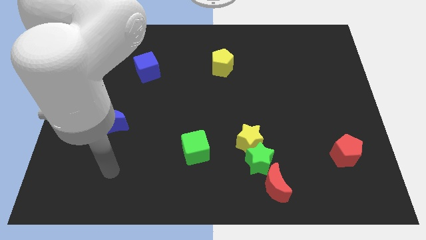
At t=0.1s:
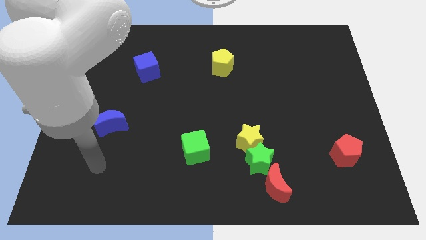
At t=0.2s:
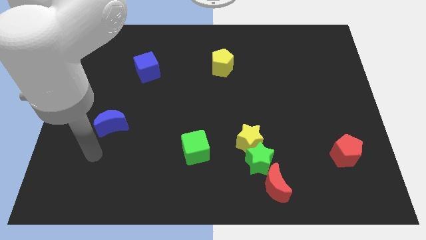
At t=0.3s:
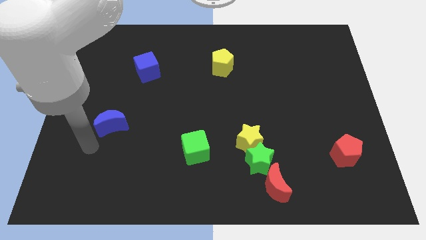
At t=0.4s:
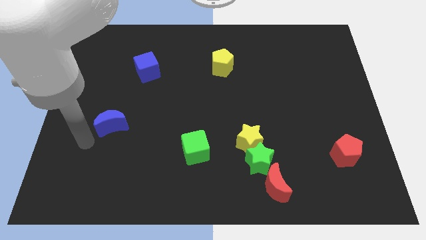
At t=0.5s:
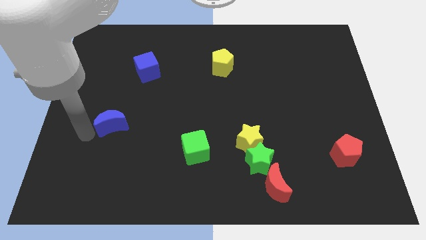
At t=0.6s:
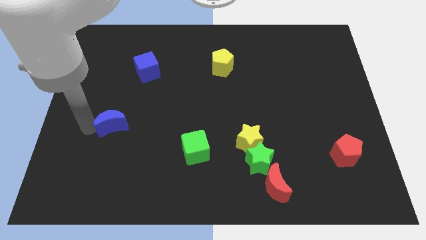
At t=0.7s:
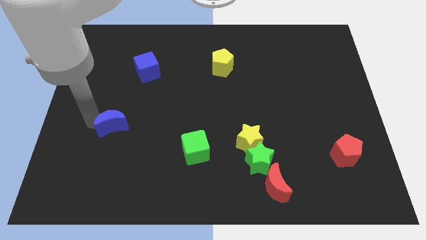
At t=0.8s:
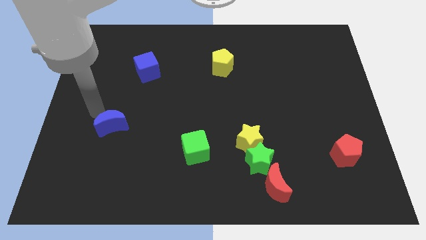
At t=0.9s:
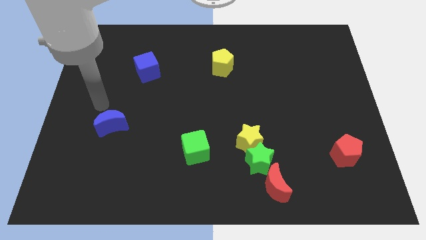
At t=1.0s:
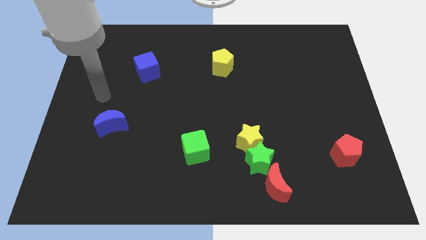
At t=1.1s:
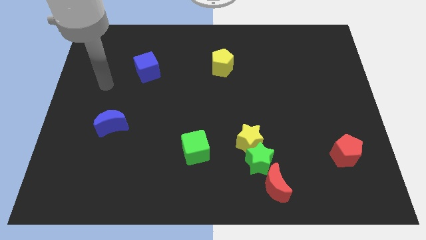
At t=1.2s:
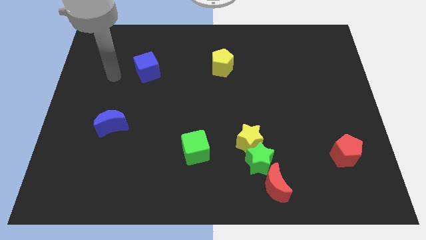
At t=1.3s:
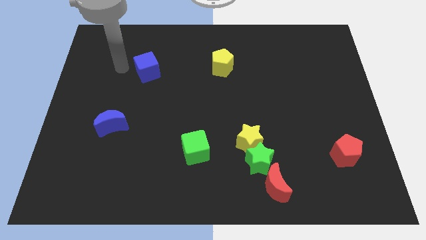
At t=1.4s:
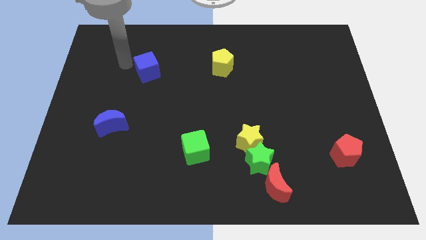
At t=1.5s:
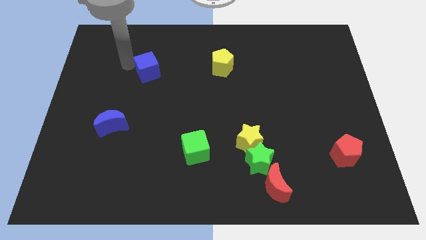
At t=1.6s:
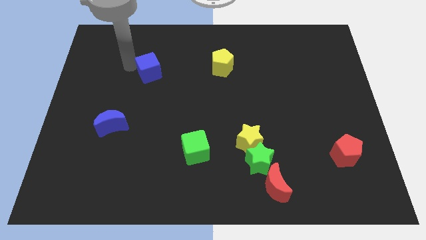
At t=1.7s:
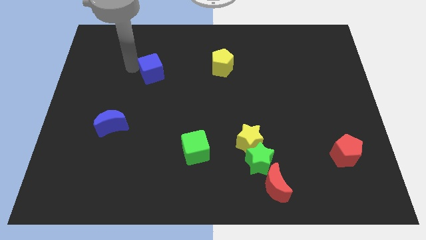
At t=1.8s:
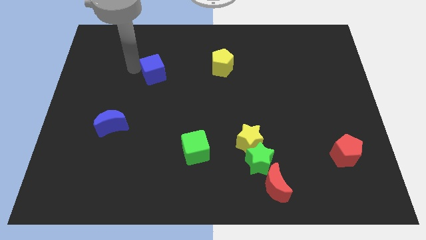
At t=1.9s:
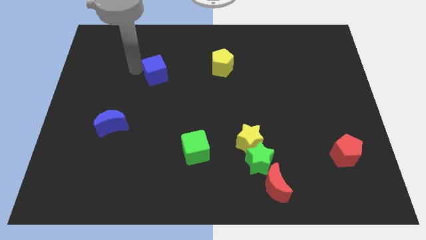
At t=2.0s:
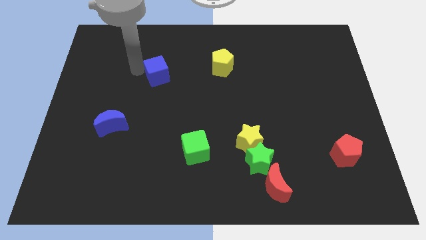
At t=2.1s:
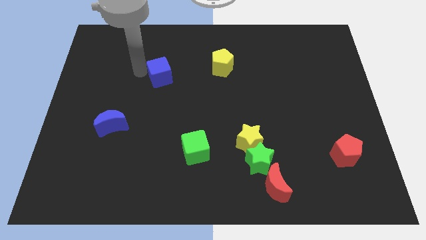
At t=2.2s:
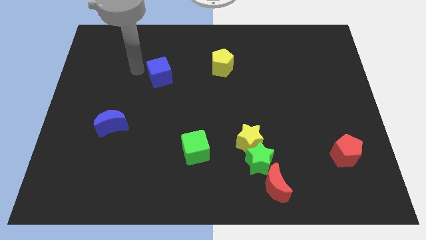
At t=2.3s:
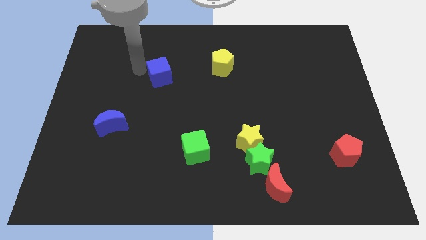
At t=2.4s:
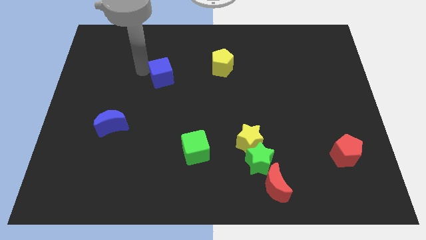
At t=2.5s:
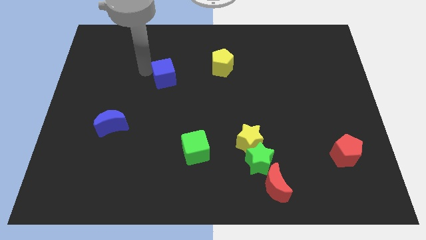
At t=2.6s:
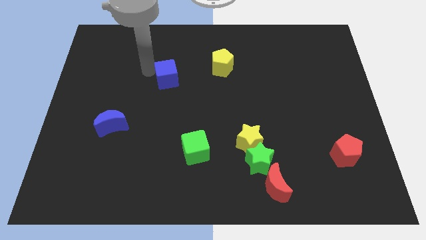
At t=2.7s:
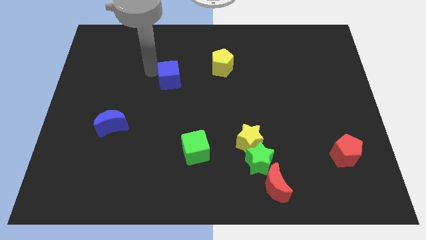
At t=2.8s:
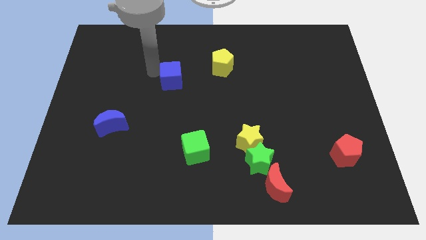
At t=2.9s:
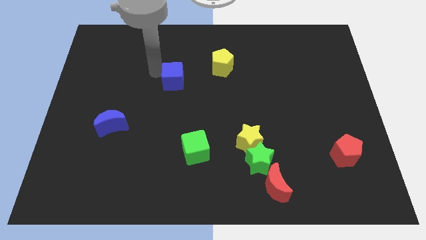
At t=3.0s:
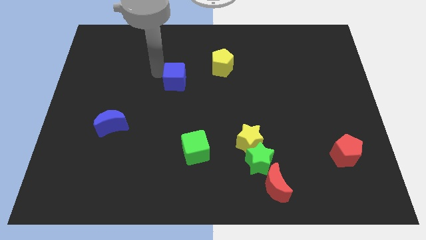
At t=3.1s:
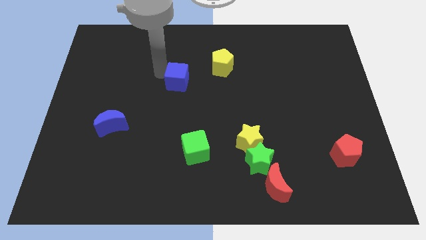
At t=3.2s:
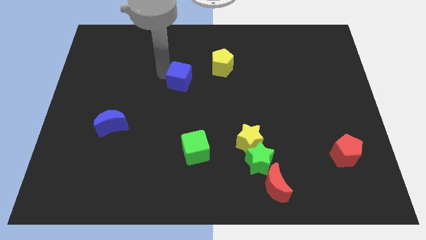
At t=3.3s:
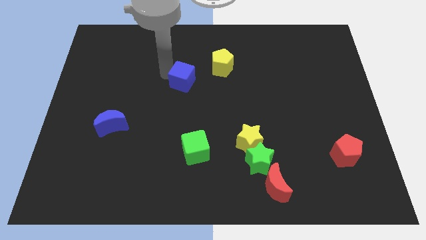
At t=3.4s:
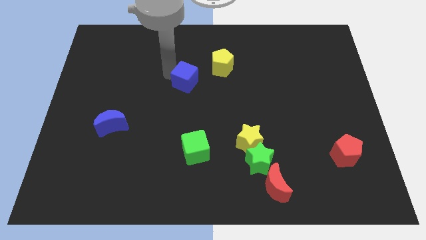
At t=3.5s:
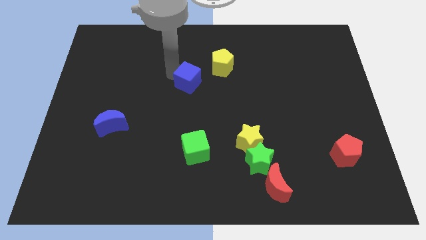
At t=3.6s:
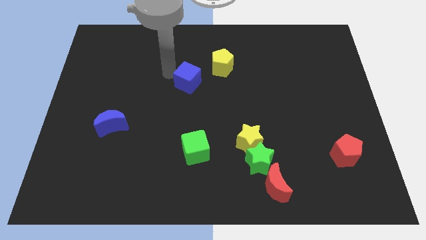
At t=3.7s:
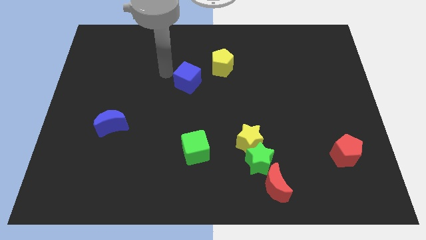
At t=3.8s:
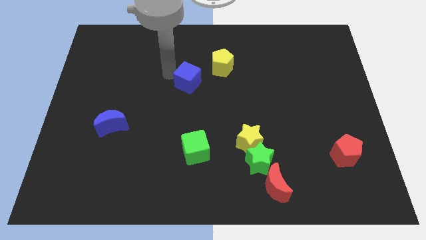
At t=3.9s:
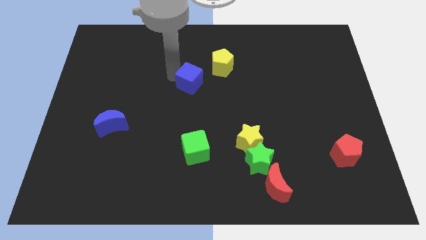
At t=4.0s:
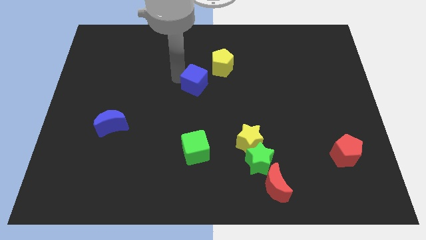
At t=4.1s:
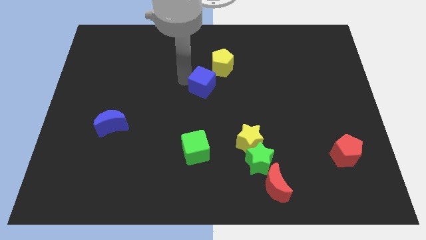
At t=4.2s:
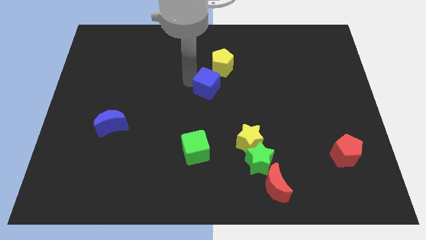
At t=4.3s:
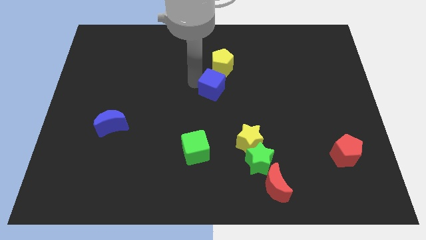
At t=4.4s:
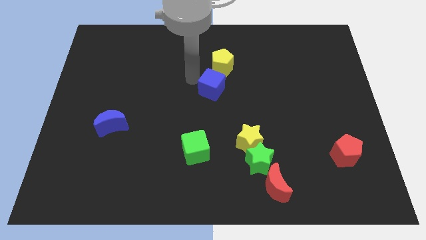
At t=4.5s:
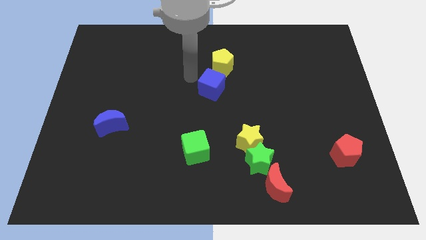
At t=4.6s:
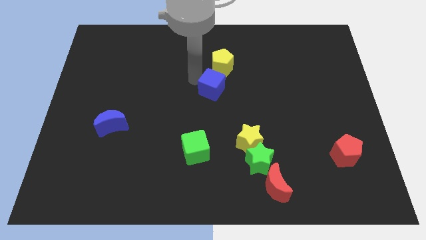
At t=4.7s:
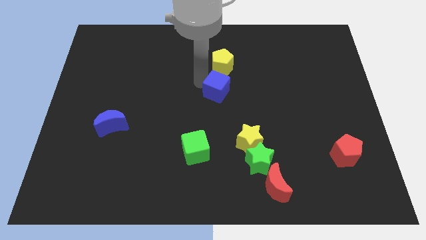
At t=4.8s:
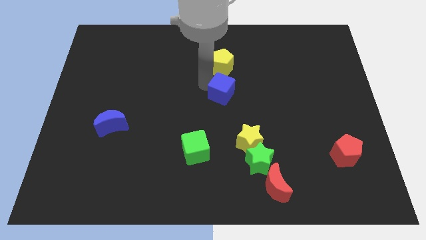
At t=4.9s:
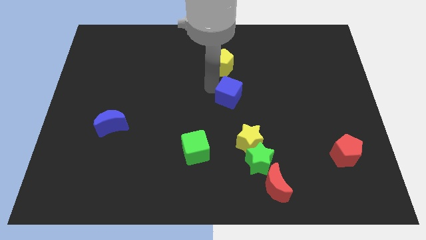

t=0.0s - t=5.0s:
push the blue cube to the top side of the yellow star

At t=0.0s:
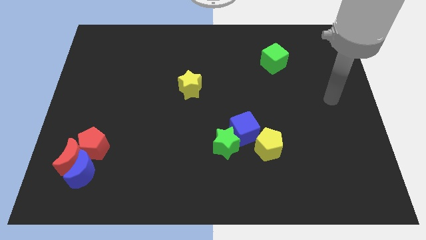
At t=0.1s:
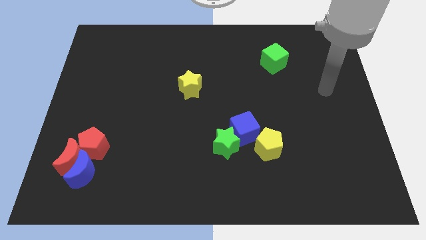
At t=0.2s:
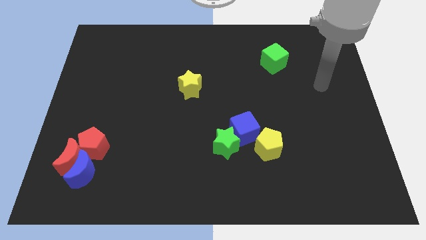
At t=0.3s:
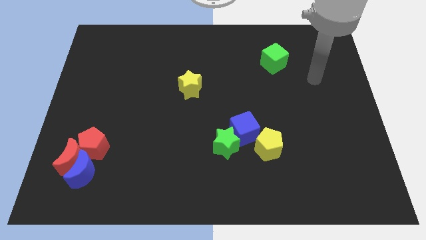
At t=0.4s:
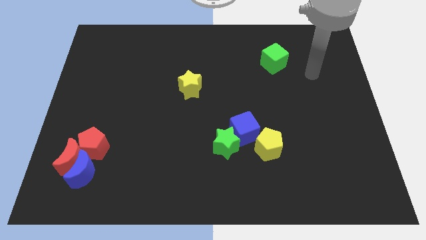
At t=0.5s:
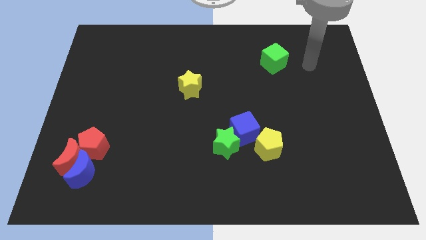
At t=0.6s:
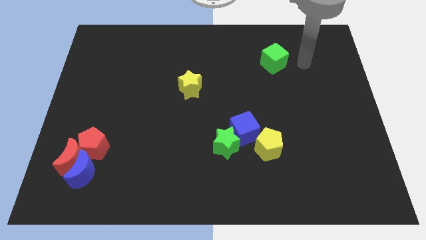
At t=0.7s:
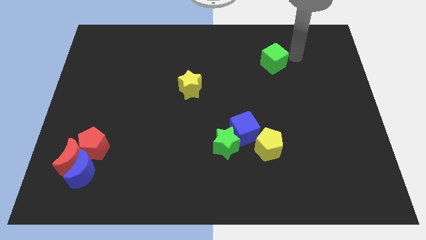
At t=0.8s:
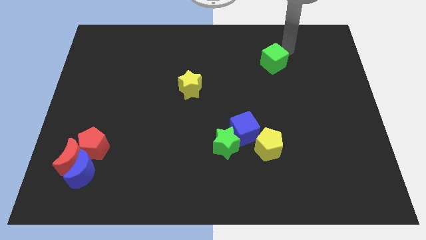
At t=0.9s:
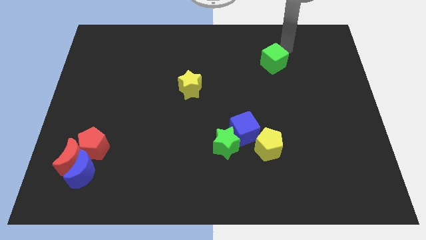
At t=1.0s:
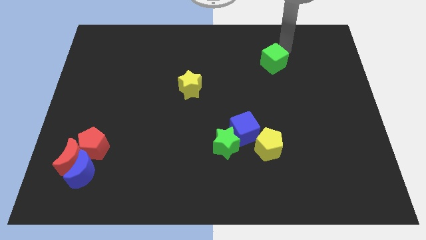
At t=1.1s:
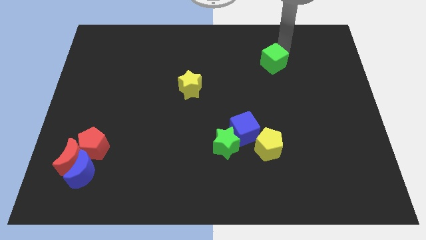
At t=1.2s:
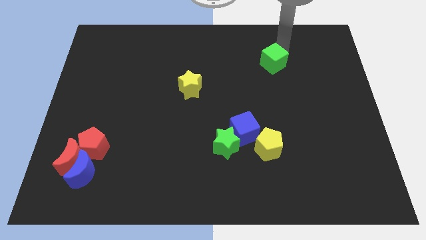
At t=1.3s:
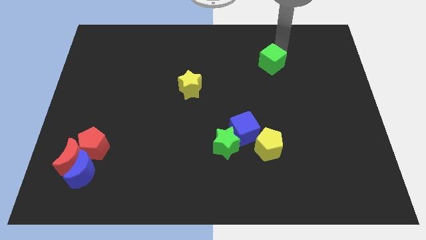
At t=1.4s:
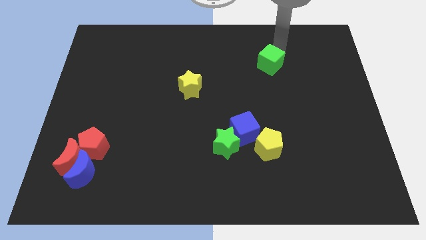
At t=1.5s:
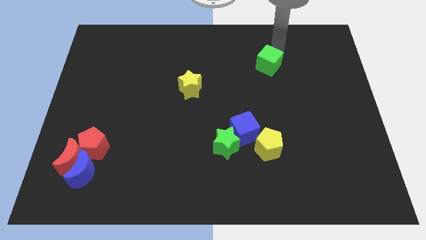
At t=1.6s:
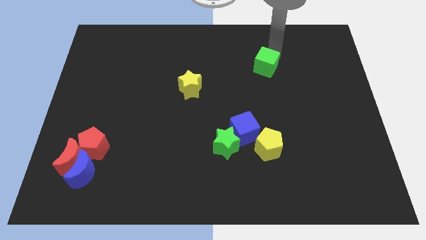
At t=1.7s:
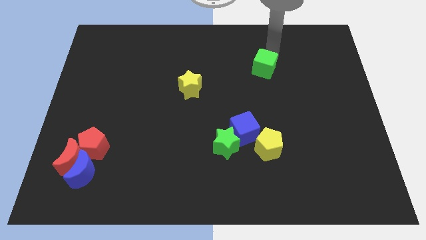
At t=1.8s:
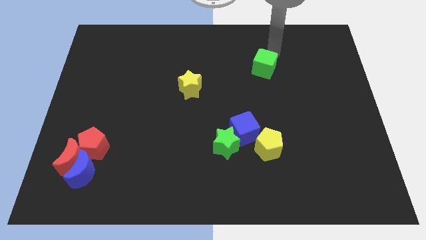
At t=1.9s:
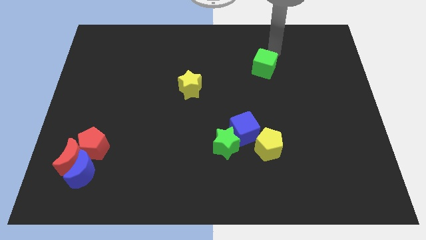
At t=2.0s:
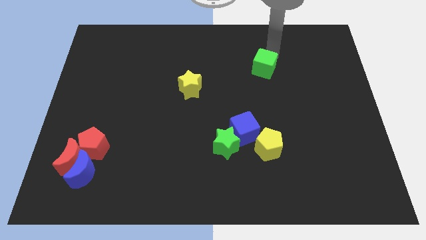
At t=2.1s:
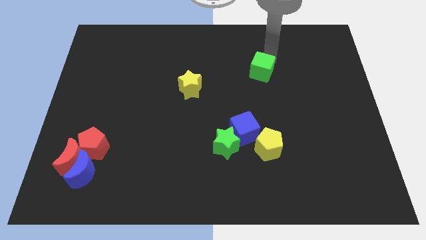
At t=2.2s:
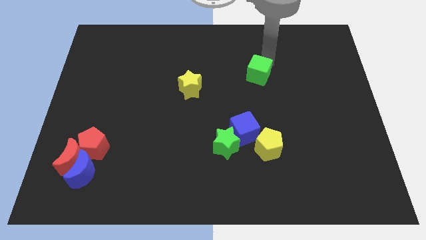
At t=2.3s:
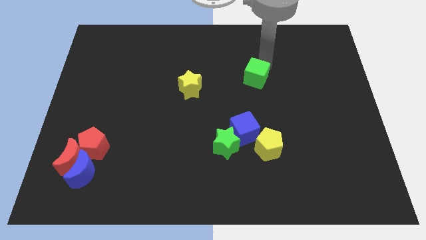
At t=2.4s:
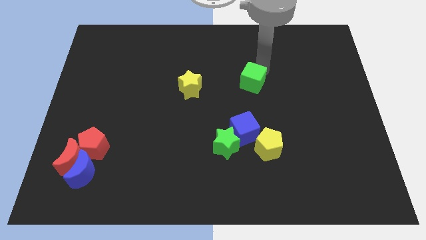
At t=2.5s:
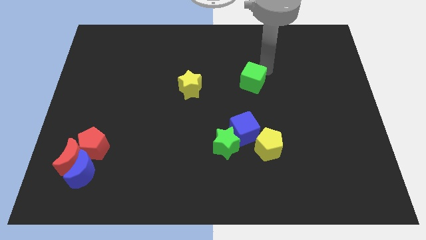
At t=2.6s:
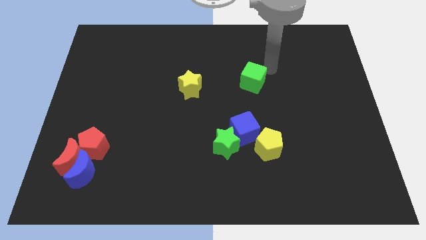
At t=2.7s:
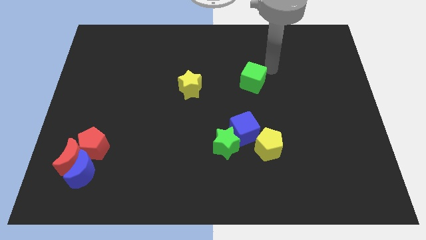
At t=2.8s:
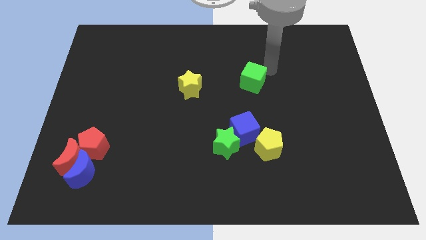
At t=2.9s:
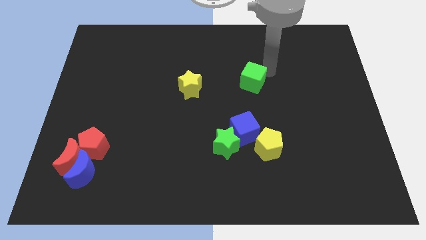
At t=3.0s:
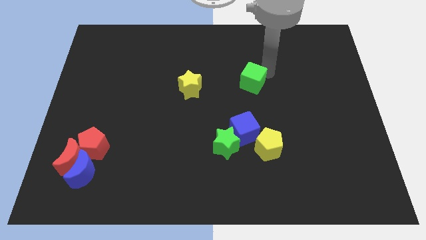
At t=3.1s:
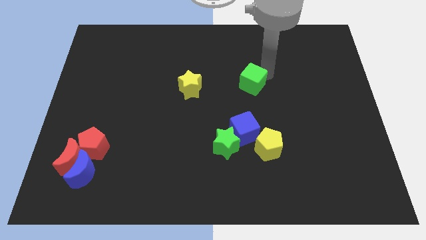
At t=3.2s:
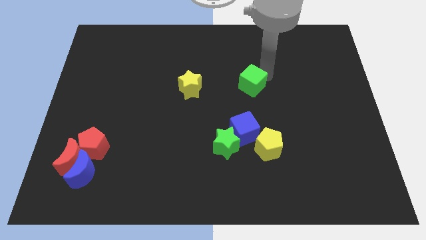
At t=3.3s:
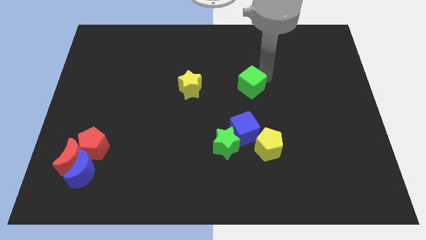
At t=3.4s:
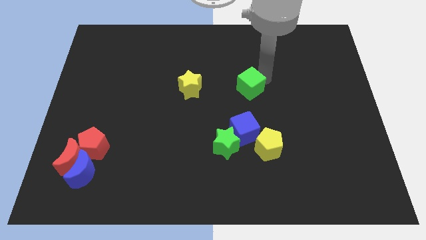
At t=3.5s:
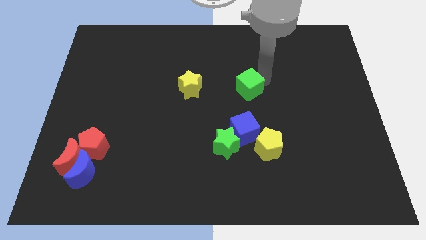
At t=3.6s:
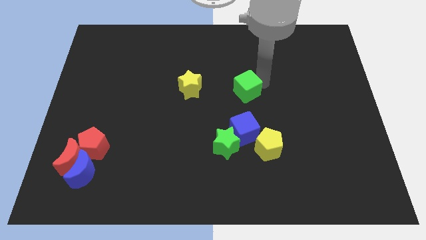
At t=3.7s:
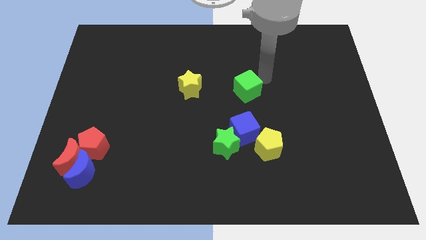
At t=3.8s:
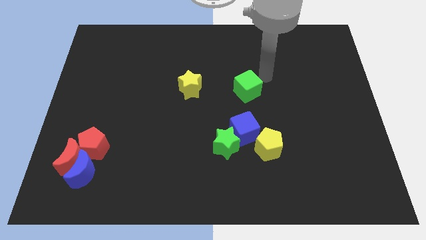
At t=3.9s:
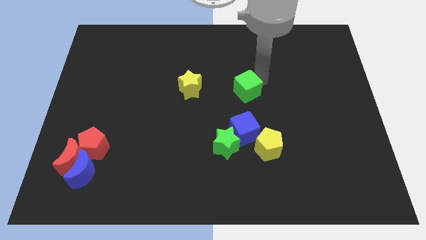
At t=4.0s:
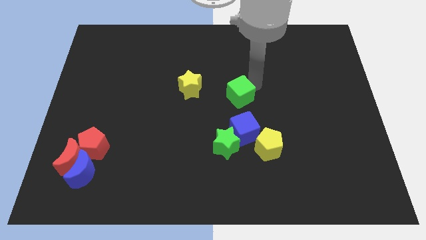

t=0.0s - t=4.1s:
put the green cube to the top of the green star
